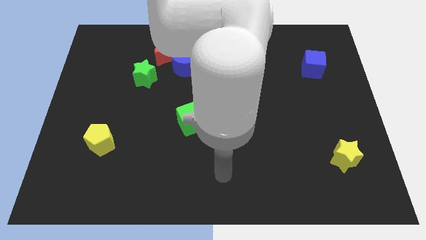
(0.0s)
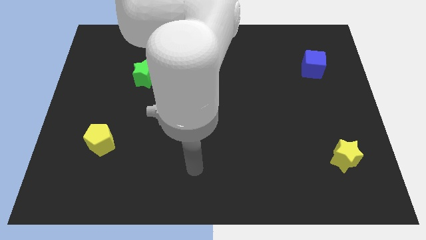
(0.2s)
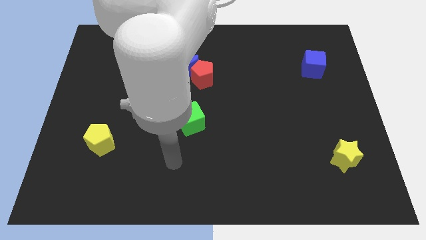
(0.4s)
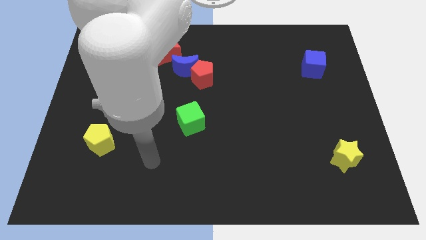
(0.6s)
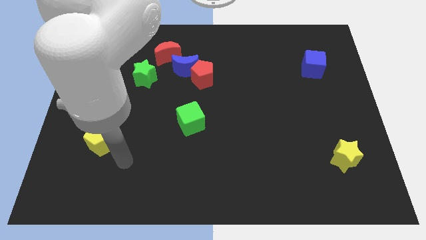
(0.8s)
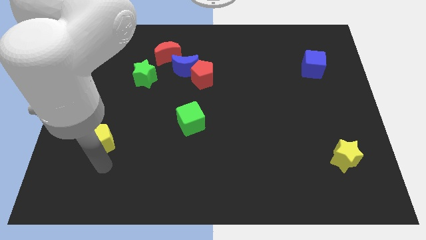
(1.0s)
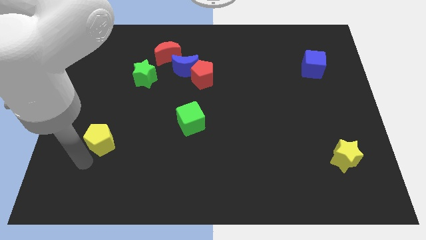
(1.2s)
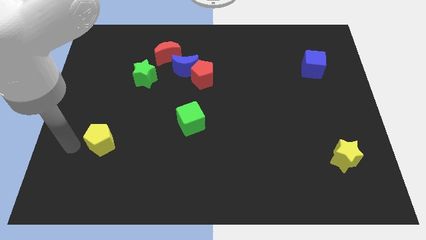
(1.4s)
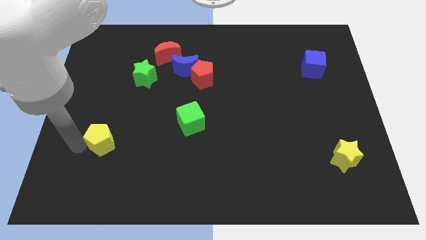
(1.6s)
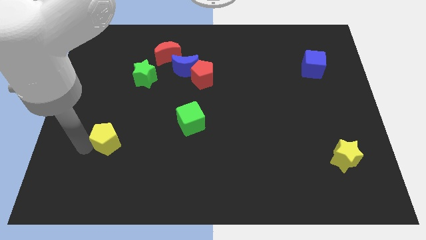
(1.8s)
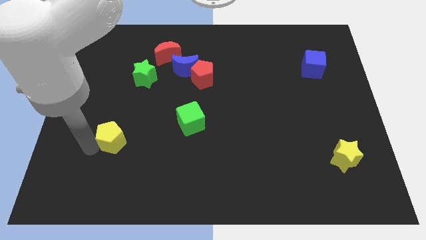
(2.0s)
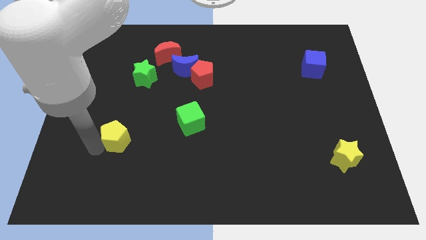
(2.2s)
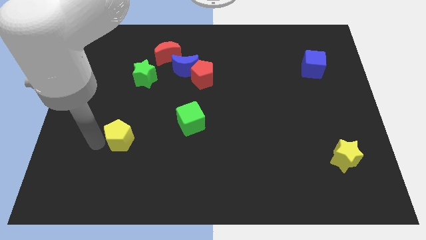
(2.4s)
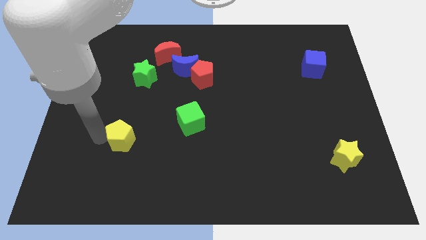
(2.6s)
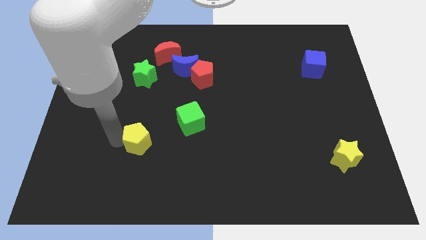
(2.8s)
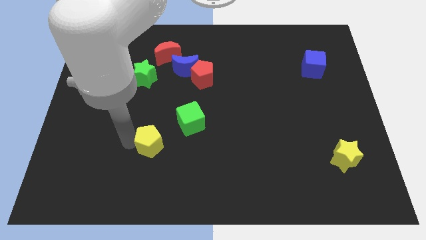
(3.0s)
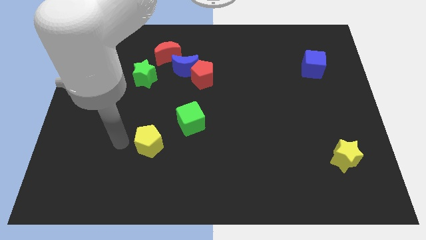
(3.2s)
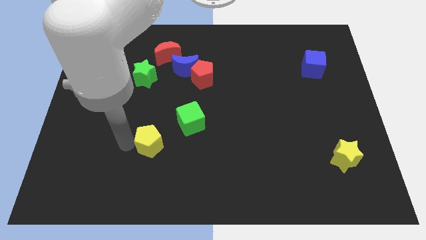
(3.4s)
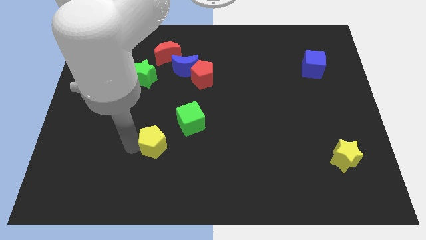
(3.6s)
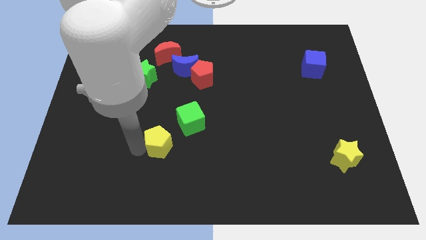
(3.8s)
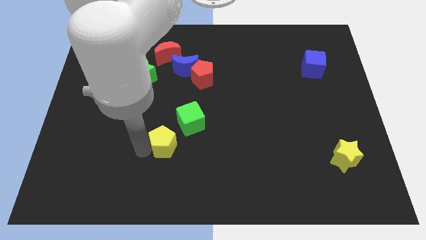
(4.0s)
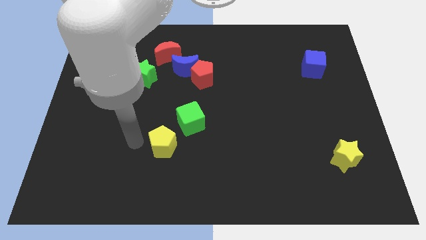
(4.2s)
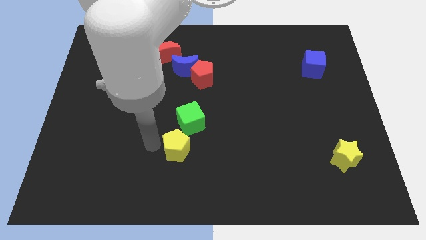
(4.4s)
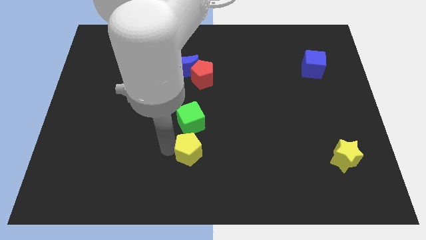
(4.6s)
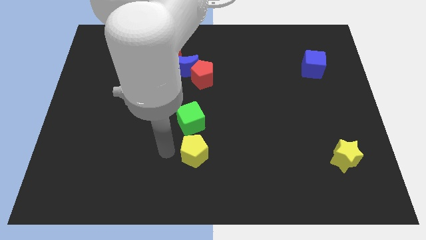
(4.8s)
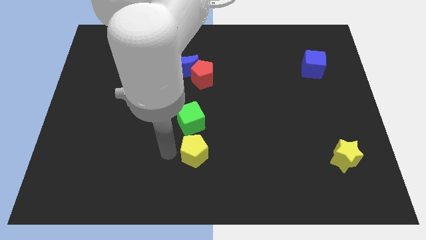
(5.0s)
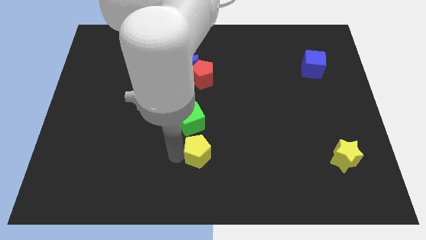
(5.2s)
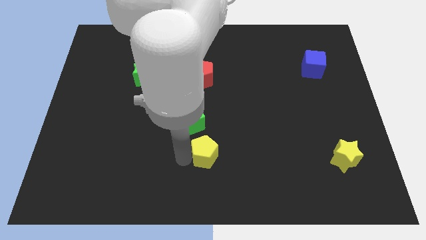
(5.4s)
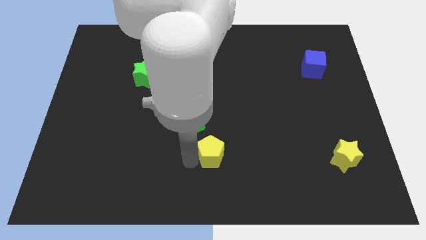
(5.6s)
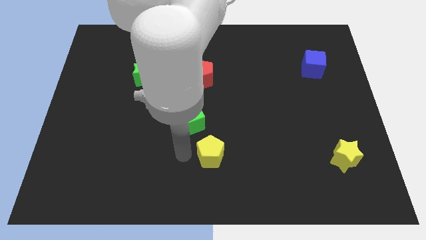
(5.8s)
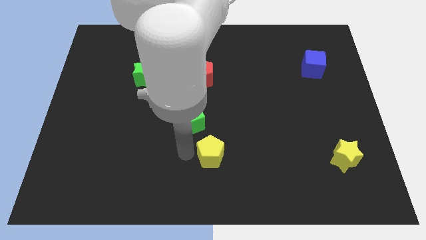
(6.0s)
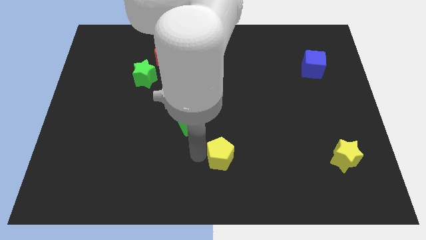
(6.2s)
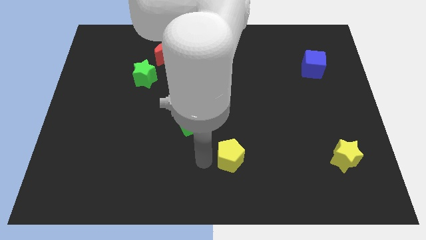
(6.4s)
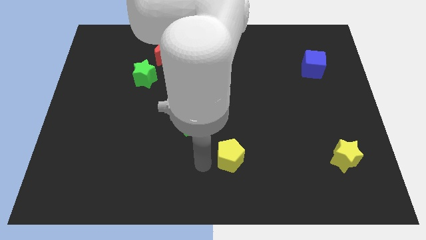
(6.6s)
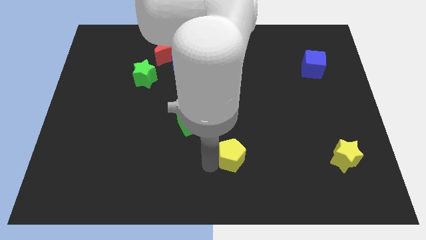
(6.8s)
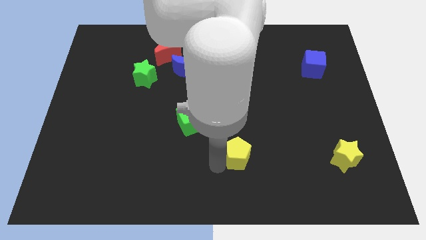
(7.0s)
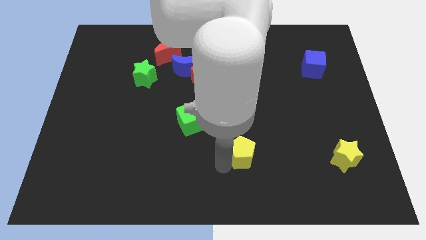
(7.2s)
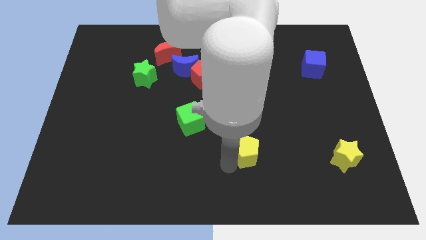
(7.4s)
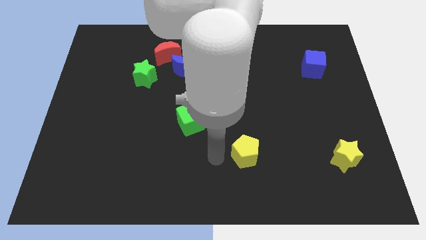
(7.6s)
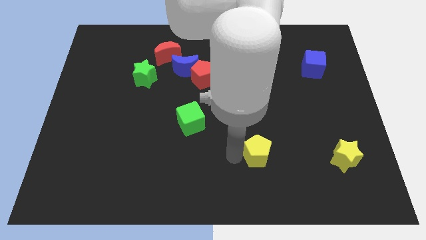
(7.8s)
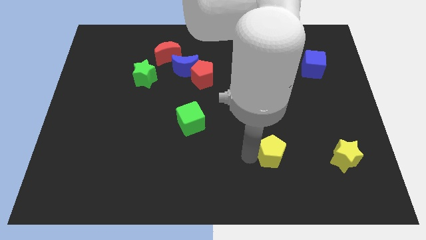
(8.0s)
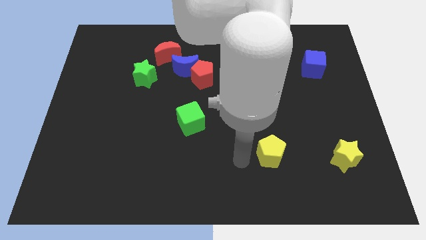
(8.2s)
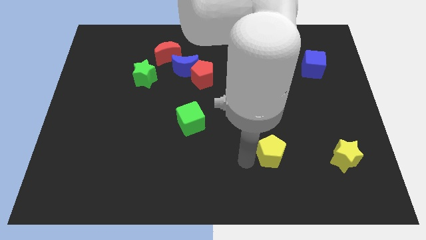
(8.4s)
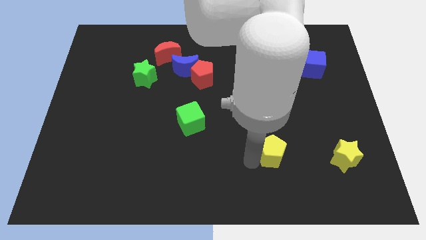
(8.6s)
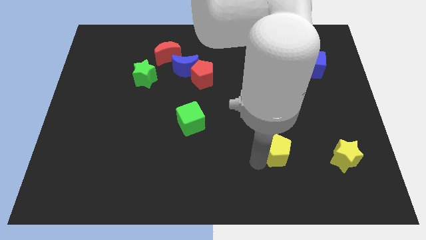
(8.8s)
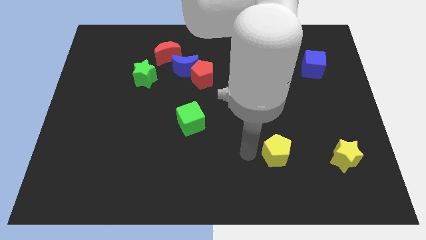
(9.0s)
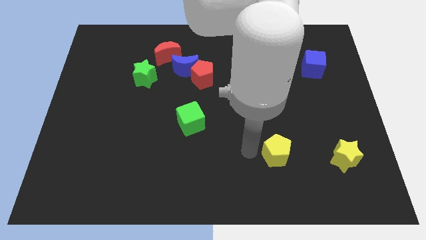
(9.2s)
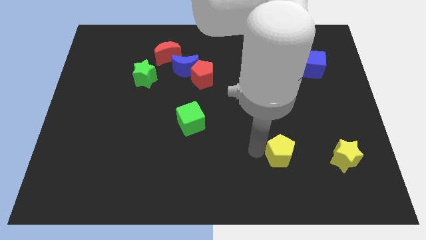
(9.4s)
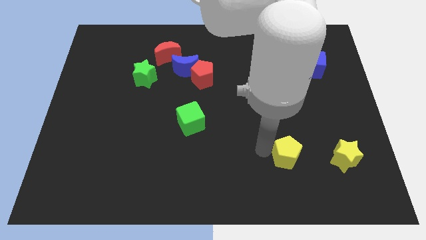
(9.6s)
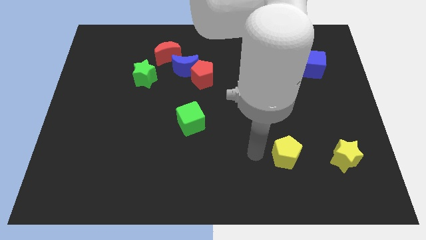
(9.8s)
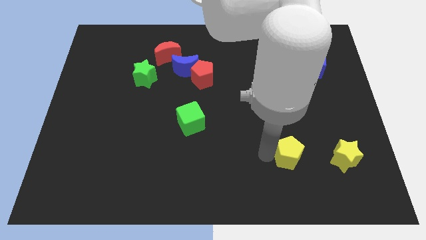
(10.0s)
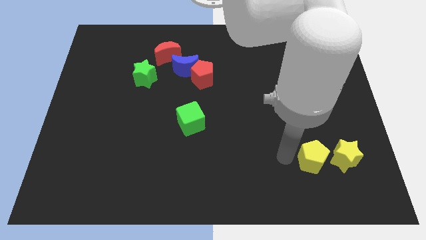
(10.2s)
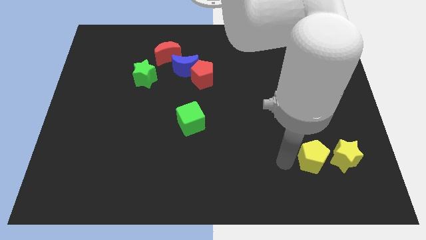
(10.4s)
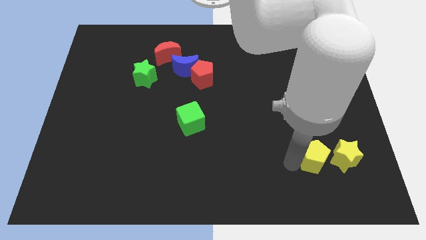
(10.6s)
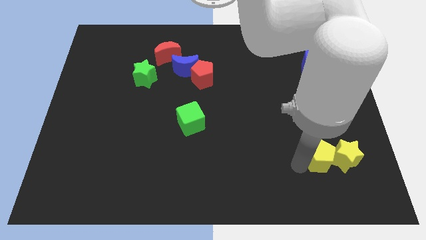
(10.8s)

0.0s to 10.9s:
move the yellow pentagon next to the yellow star

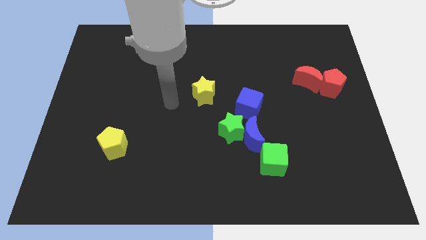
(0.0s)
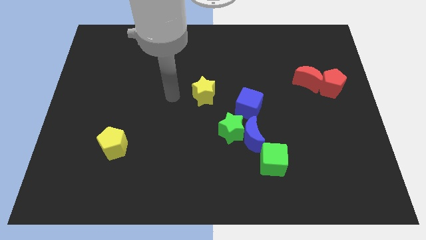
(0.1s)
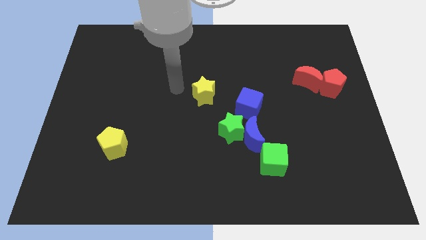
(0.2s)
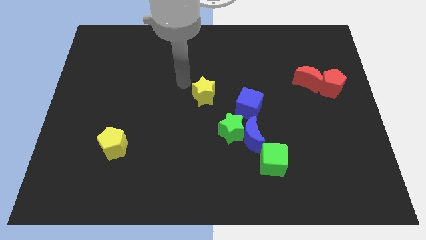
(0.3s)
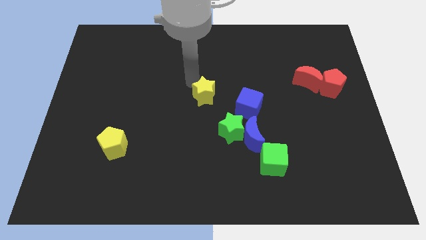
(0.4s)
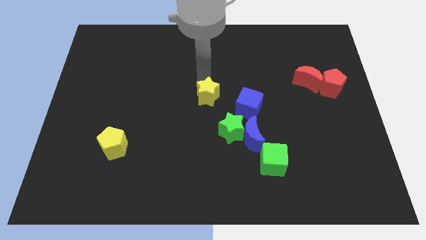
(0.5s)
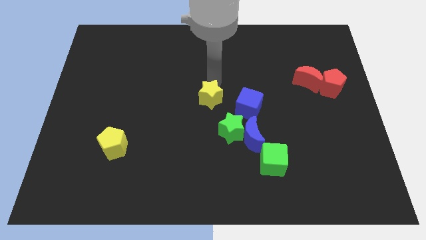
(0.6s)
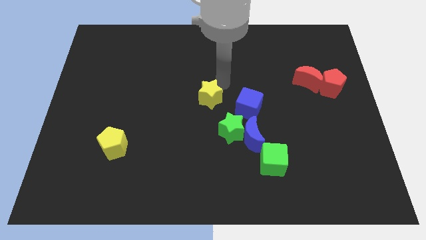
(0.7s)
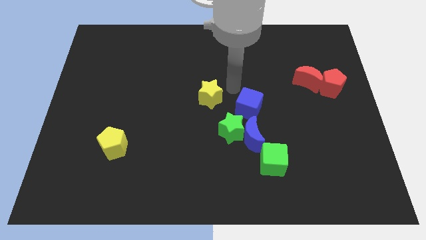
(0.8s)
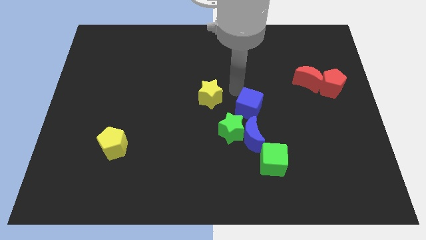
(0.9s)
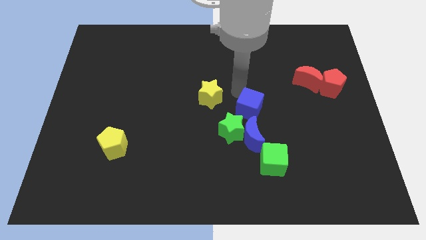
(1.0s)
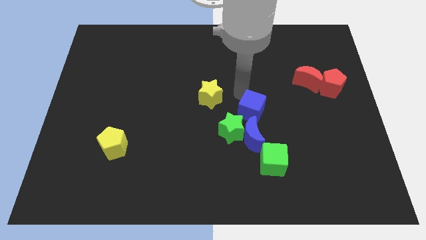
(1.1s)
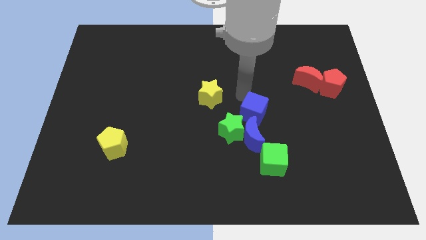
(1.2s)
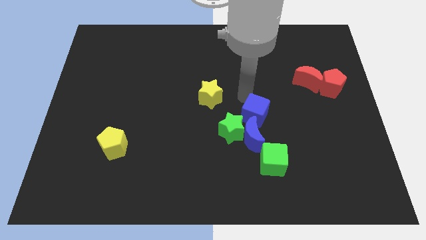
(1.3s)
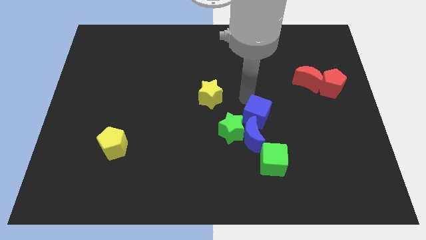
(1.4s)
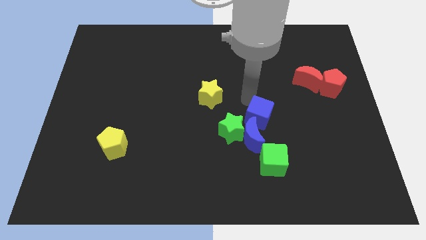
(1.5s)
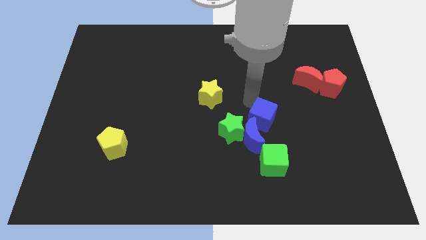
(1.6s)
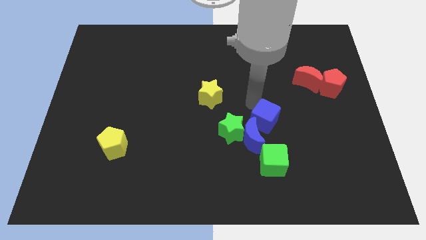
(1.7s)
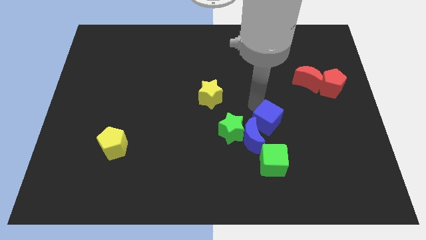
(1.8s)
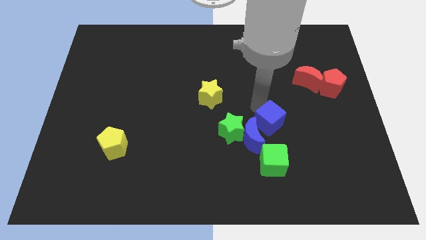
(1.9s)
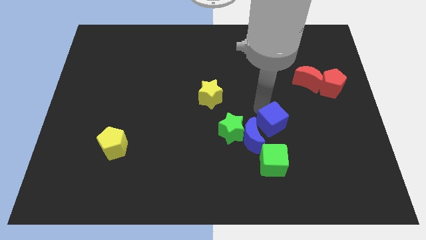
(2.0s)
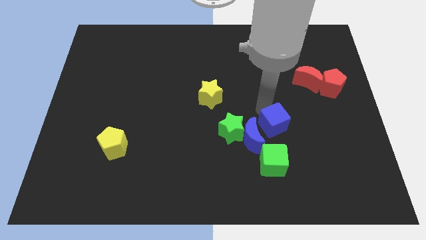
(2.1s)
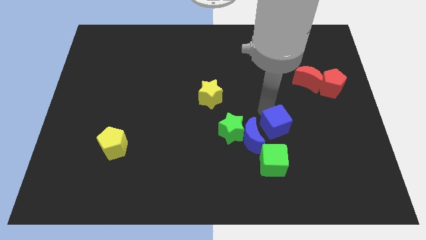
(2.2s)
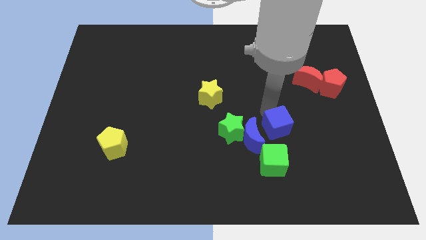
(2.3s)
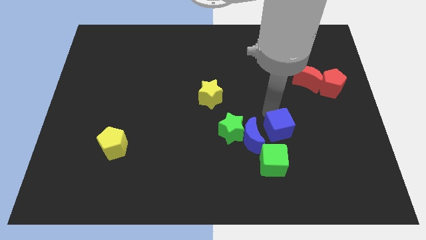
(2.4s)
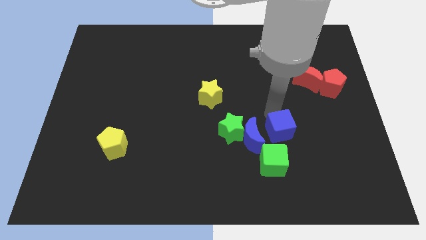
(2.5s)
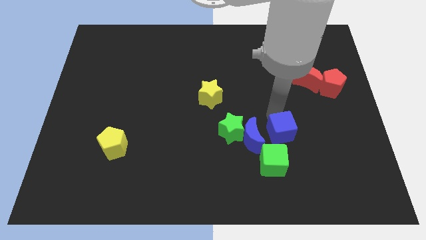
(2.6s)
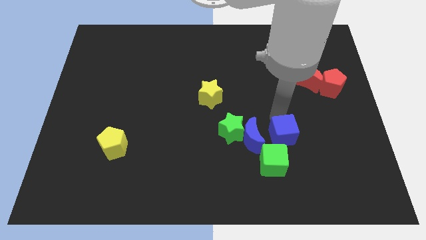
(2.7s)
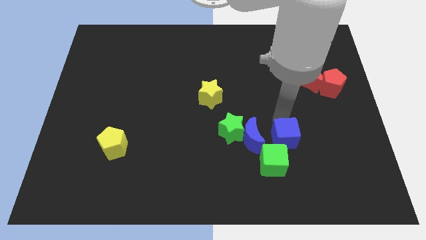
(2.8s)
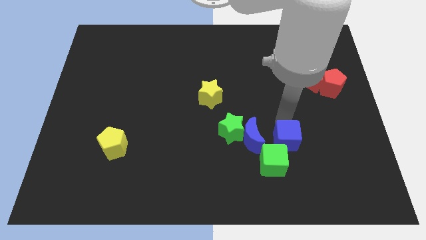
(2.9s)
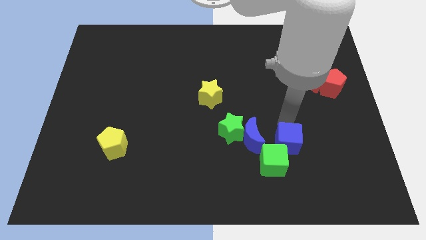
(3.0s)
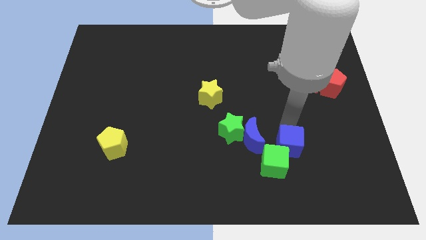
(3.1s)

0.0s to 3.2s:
move the blue cube to the green cube
